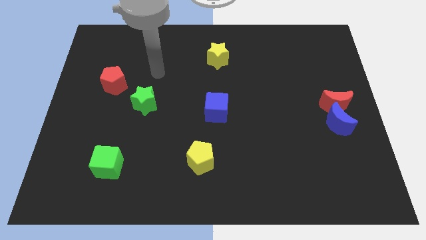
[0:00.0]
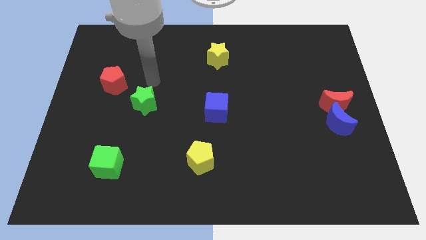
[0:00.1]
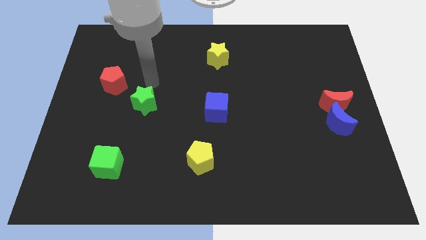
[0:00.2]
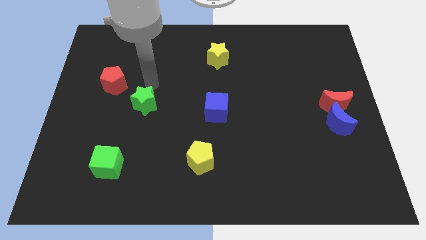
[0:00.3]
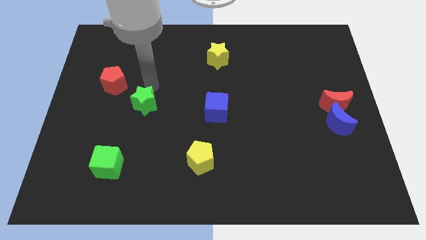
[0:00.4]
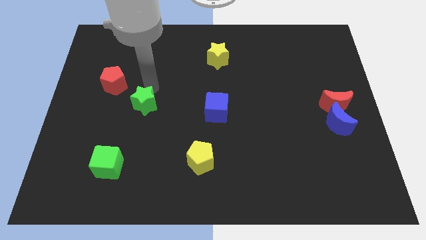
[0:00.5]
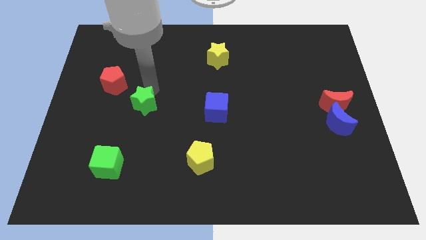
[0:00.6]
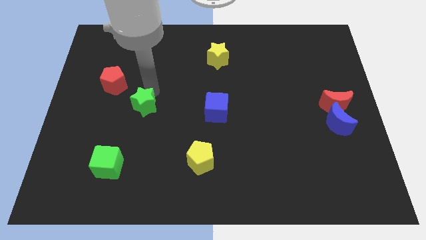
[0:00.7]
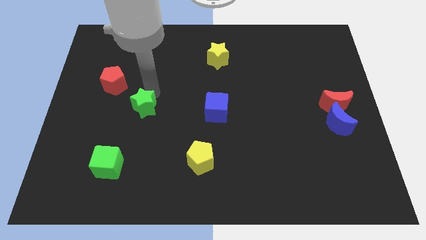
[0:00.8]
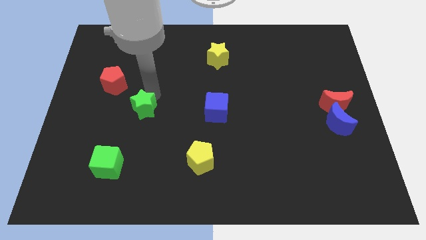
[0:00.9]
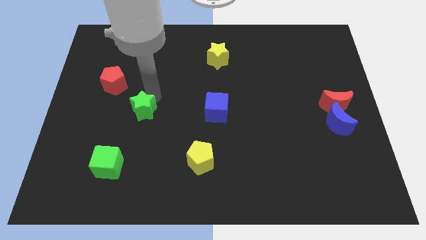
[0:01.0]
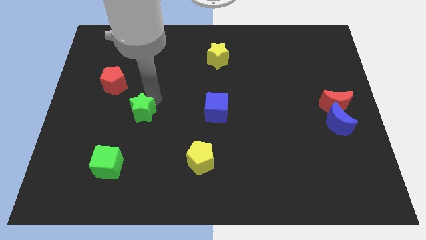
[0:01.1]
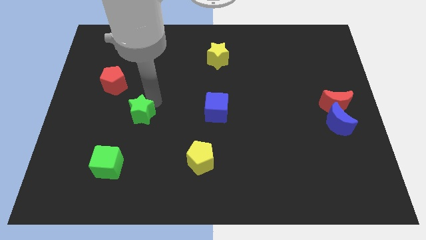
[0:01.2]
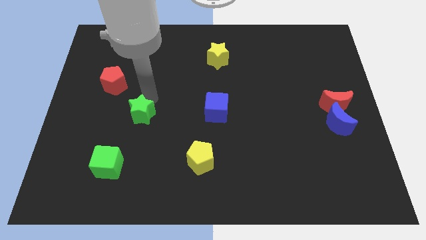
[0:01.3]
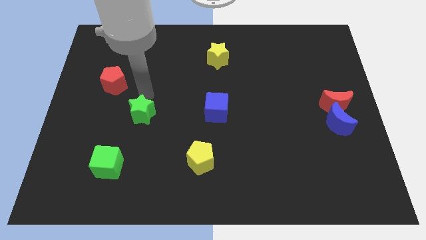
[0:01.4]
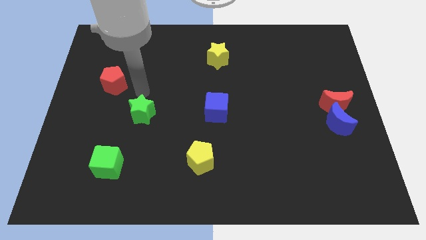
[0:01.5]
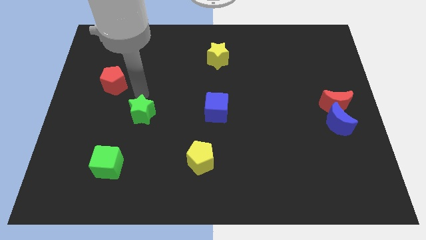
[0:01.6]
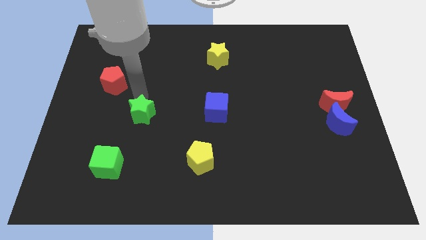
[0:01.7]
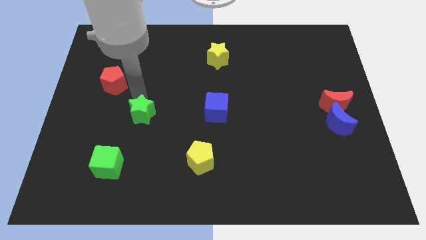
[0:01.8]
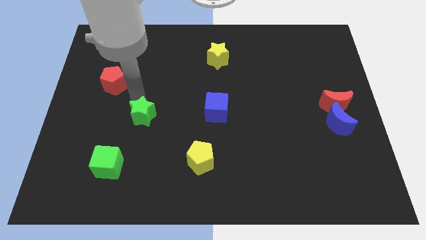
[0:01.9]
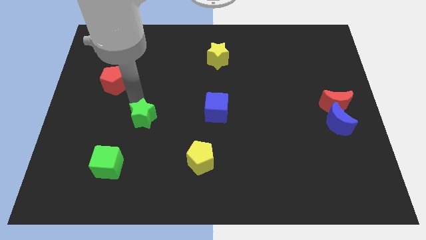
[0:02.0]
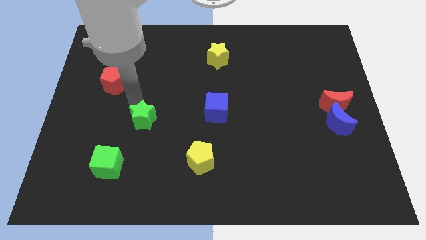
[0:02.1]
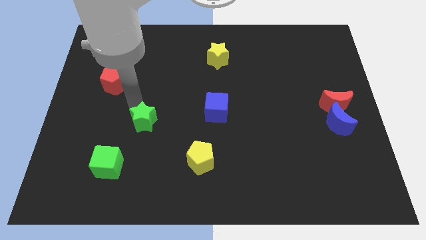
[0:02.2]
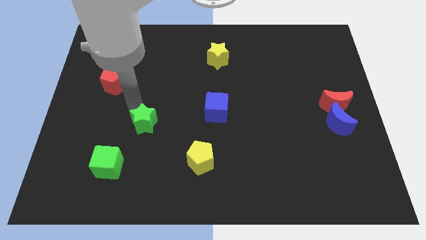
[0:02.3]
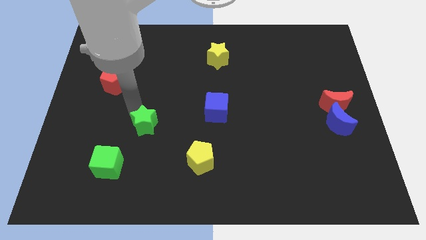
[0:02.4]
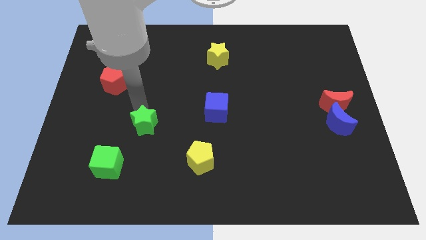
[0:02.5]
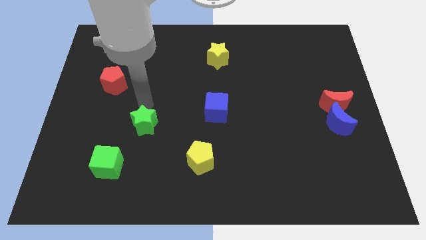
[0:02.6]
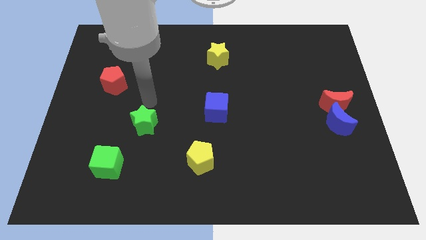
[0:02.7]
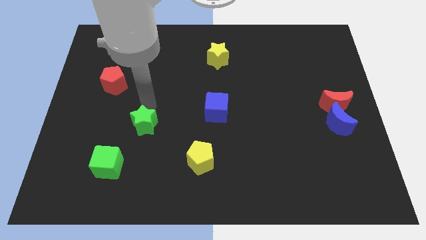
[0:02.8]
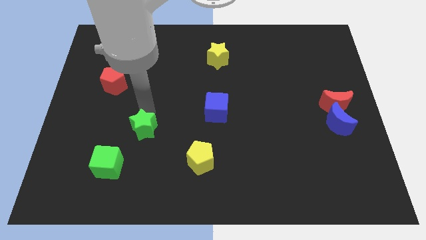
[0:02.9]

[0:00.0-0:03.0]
slide the green star downwards slightly

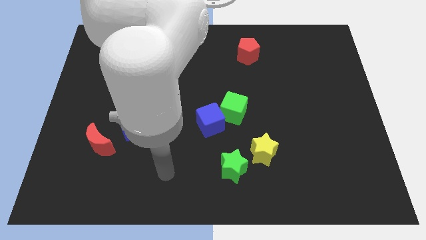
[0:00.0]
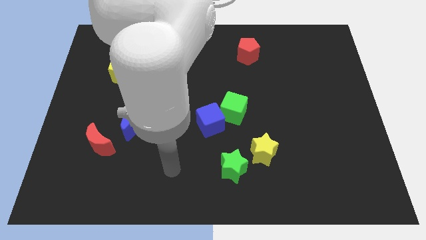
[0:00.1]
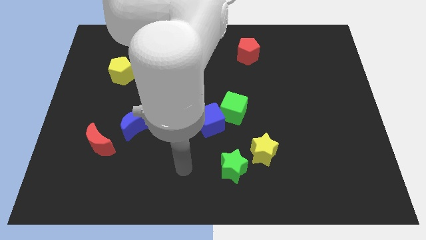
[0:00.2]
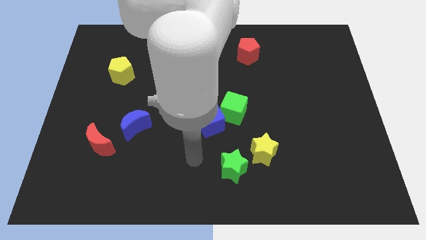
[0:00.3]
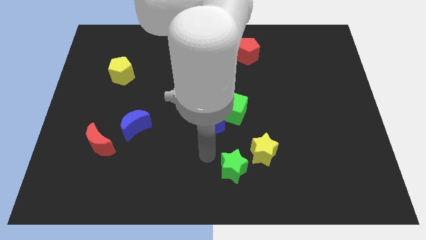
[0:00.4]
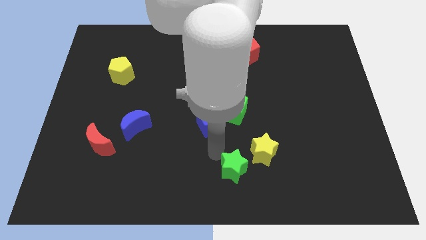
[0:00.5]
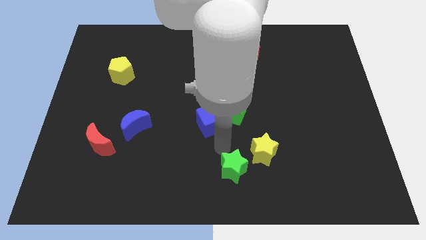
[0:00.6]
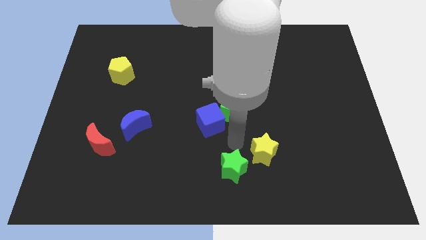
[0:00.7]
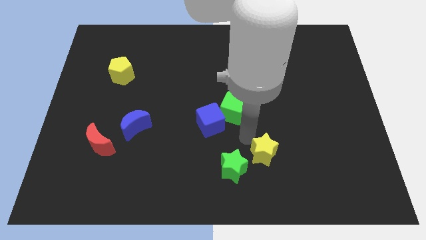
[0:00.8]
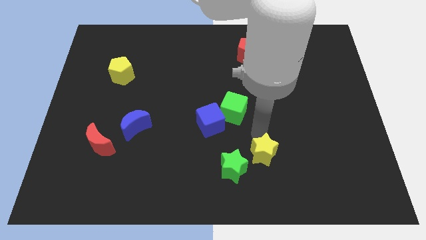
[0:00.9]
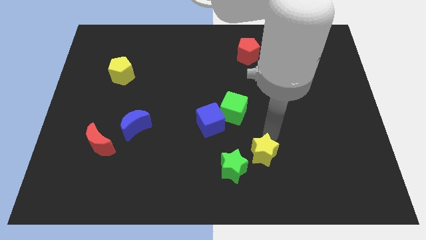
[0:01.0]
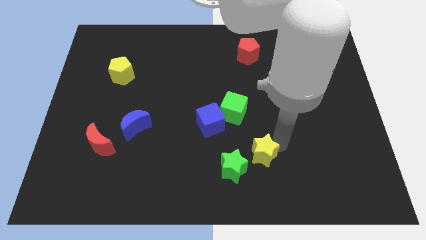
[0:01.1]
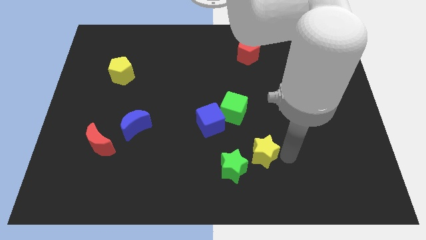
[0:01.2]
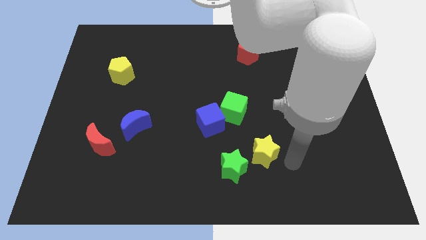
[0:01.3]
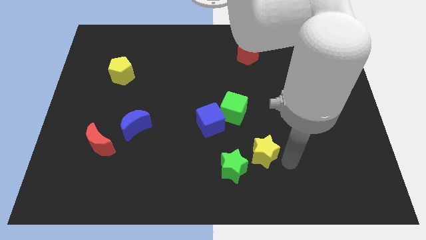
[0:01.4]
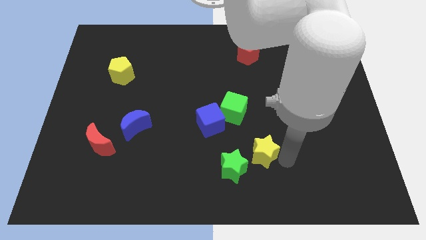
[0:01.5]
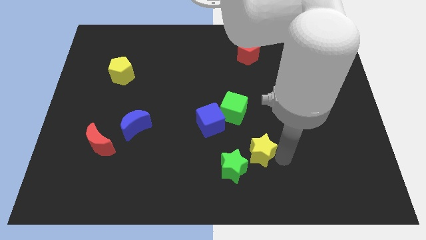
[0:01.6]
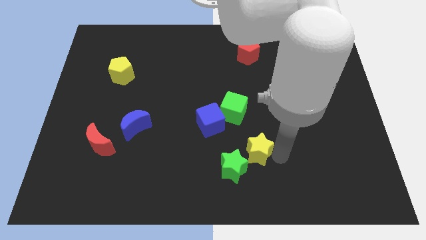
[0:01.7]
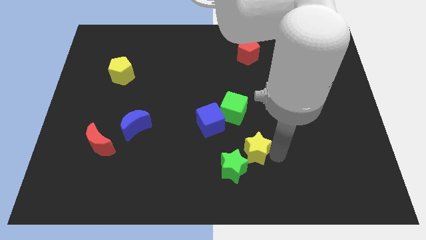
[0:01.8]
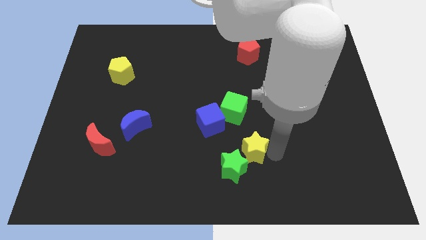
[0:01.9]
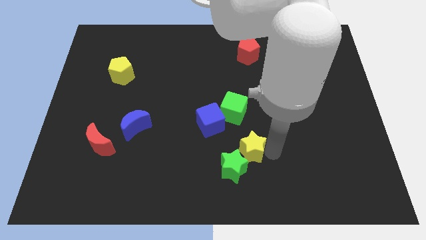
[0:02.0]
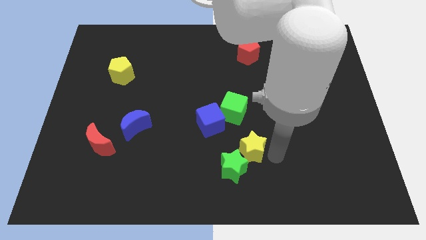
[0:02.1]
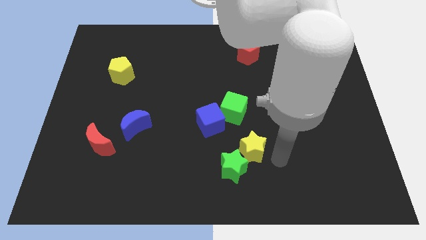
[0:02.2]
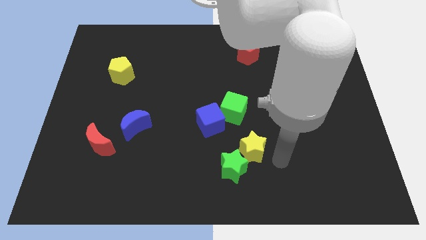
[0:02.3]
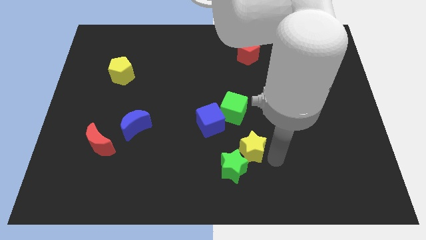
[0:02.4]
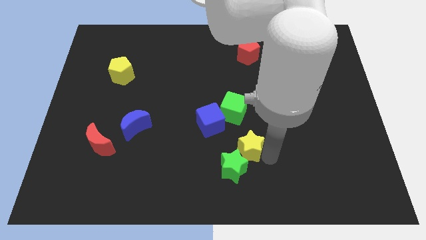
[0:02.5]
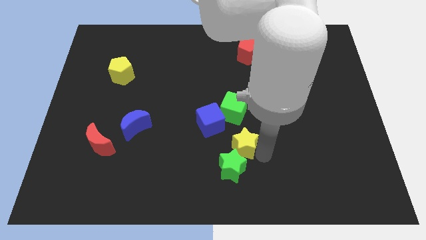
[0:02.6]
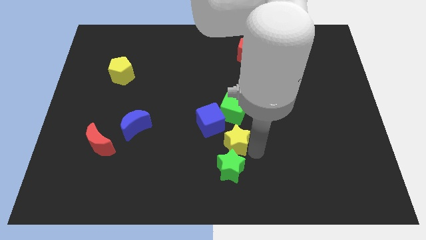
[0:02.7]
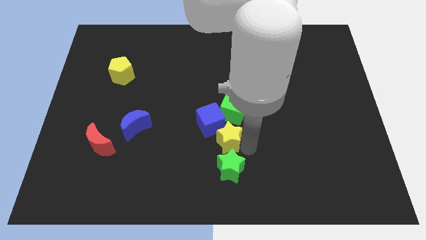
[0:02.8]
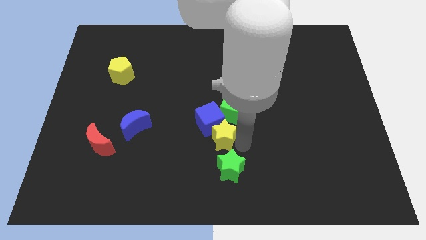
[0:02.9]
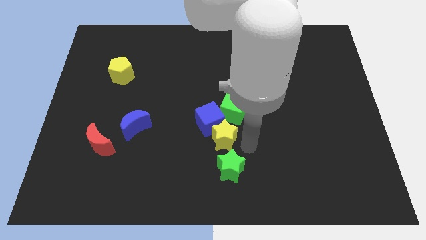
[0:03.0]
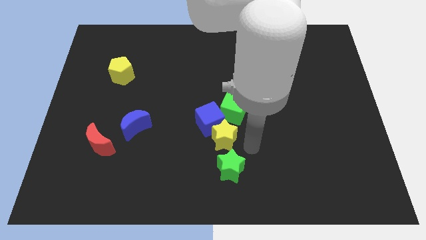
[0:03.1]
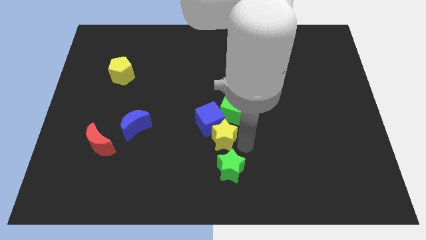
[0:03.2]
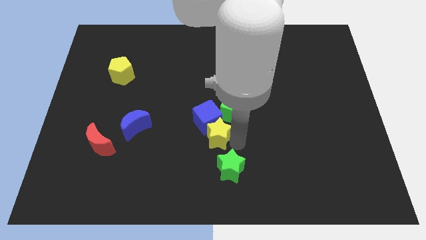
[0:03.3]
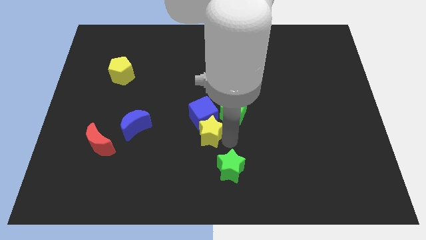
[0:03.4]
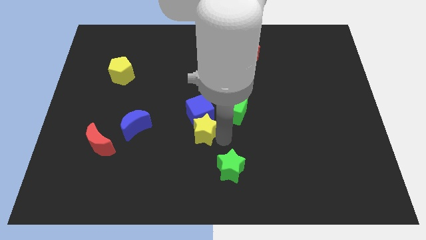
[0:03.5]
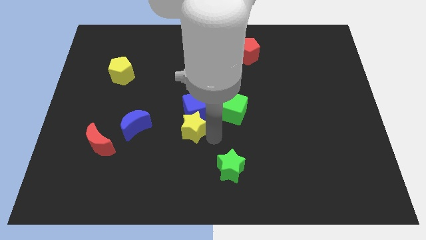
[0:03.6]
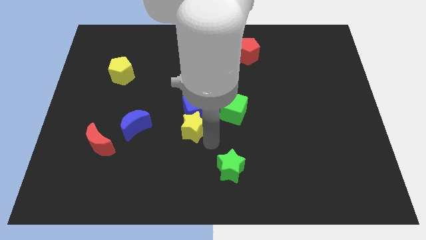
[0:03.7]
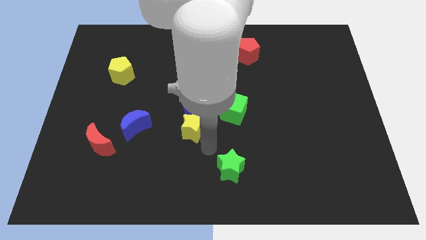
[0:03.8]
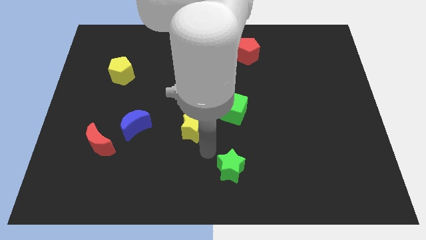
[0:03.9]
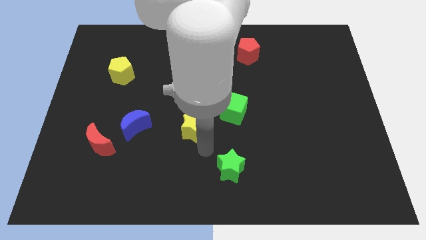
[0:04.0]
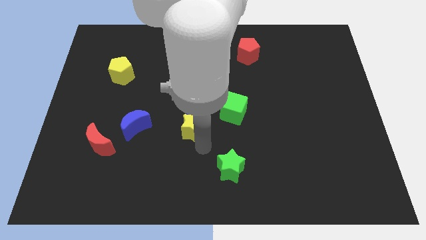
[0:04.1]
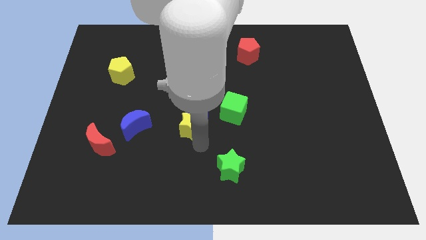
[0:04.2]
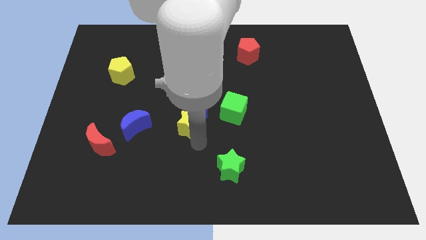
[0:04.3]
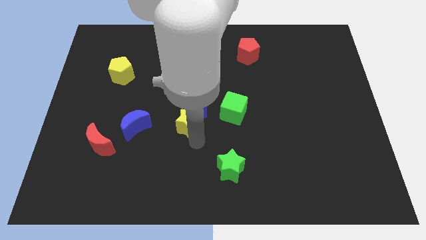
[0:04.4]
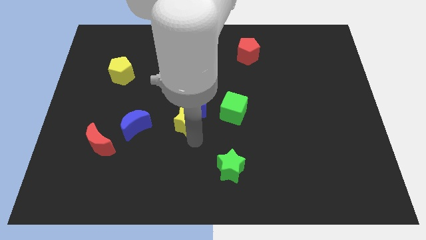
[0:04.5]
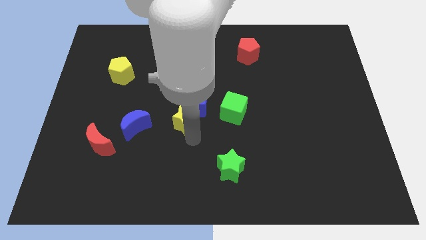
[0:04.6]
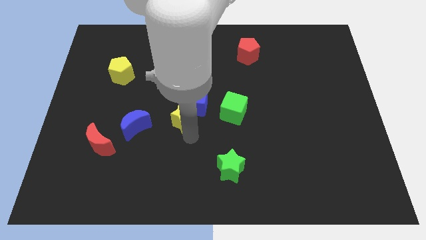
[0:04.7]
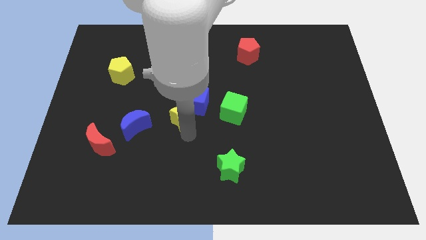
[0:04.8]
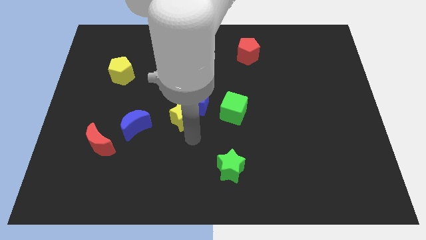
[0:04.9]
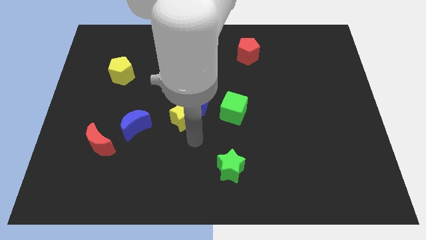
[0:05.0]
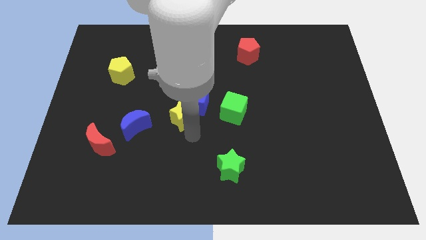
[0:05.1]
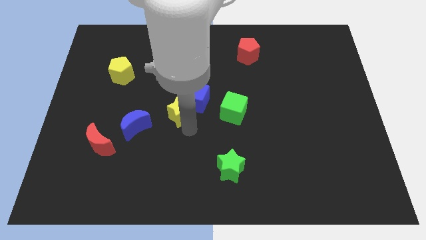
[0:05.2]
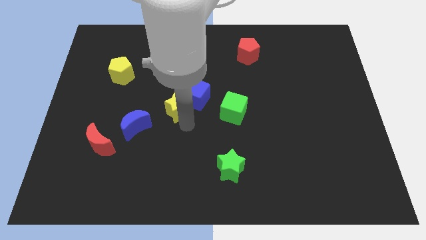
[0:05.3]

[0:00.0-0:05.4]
slide the yellow star up and left diagonally
